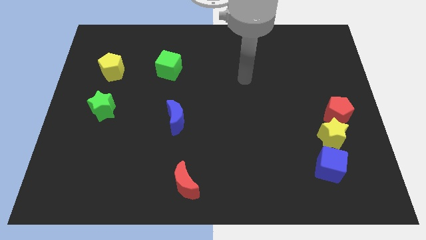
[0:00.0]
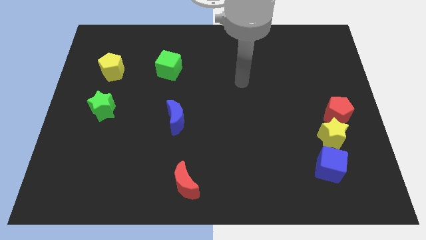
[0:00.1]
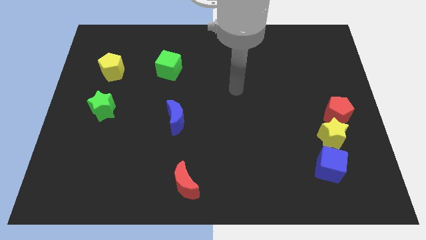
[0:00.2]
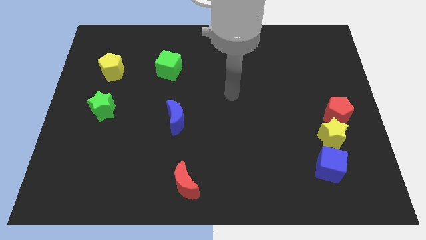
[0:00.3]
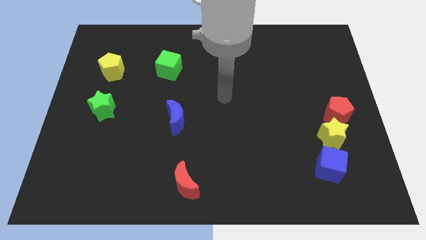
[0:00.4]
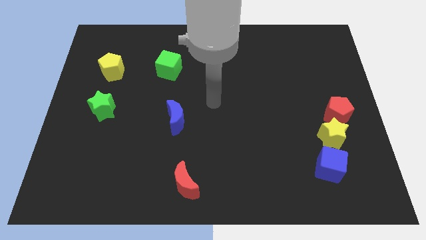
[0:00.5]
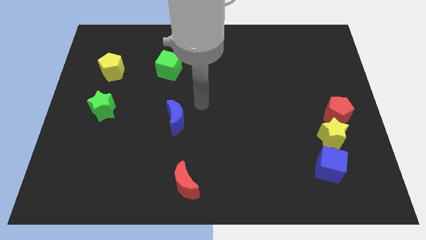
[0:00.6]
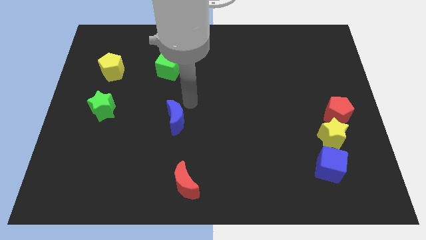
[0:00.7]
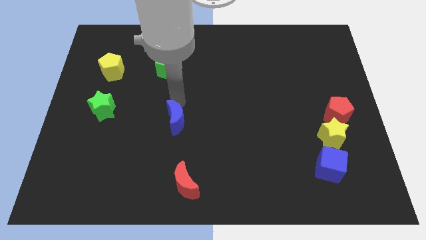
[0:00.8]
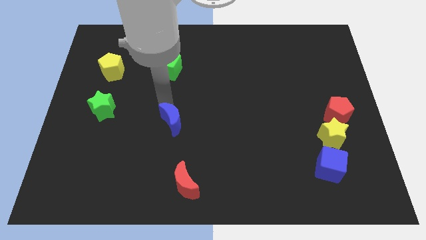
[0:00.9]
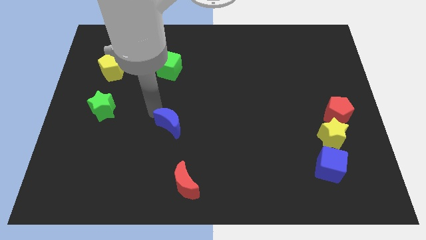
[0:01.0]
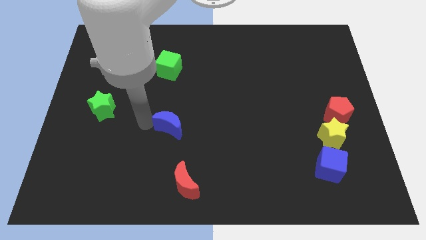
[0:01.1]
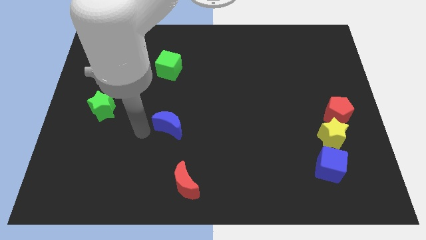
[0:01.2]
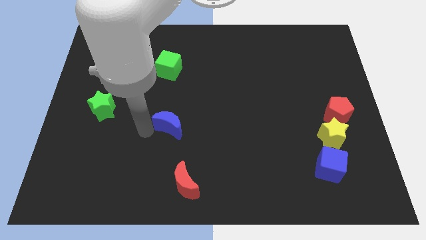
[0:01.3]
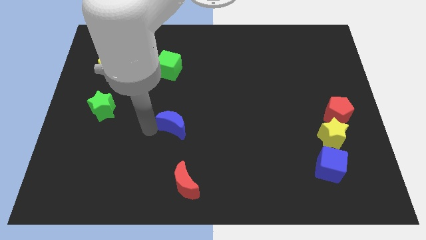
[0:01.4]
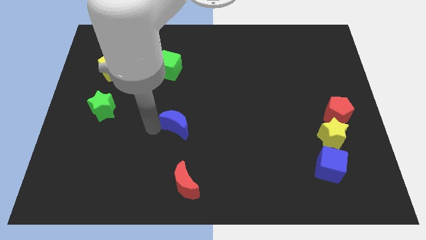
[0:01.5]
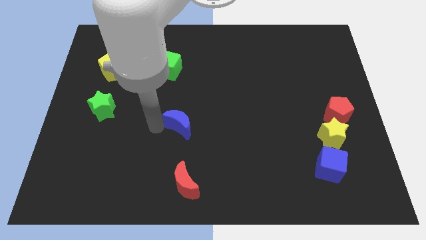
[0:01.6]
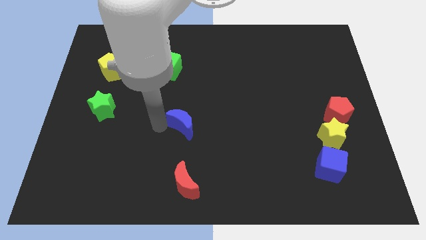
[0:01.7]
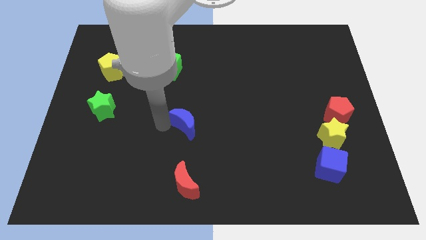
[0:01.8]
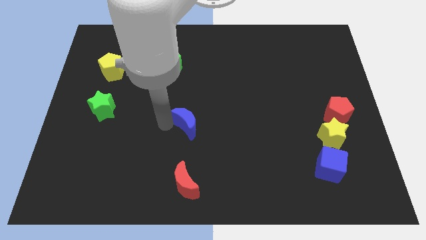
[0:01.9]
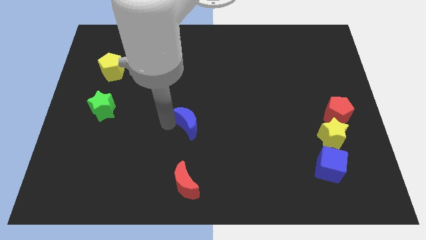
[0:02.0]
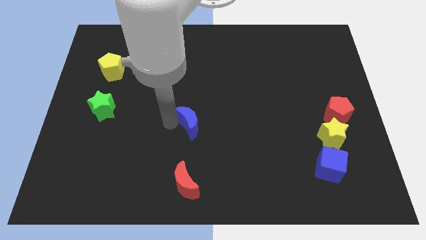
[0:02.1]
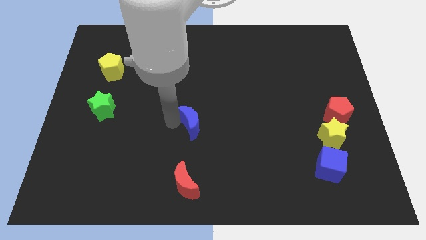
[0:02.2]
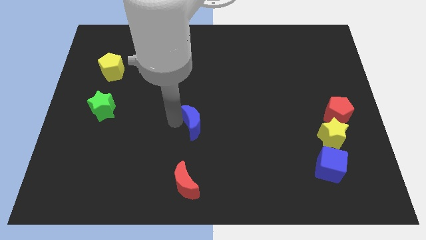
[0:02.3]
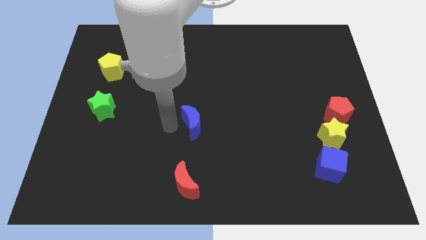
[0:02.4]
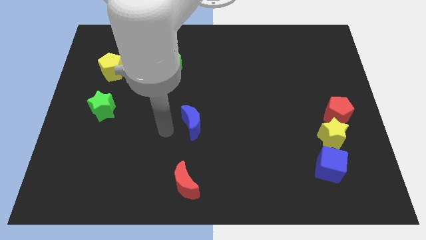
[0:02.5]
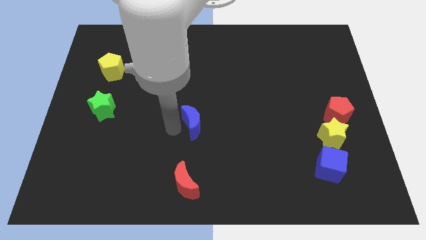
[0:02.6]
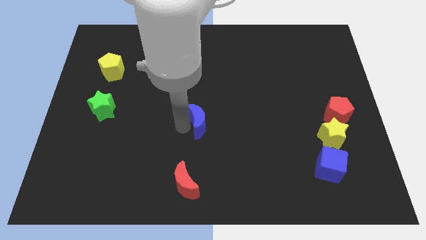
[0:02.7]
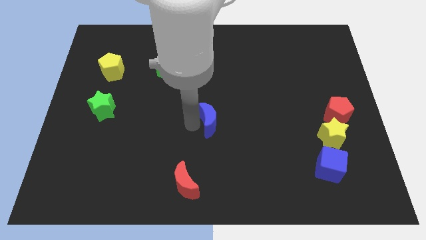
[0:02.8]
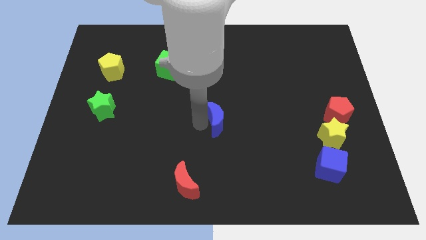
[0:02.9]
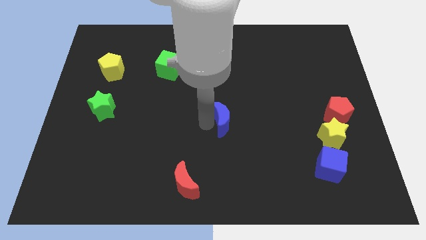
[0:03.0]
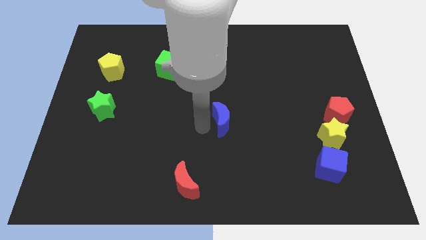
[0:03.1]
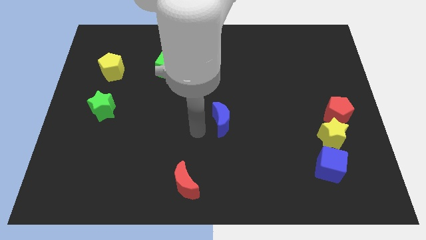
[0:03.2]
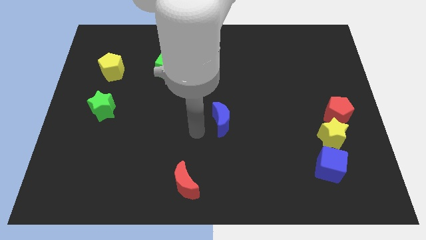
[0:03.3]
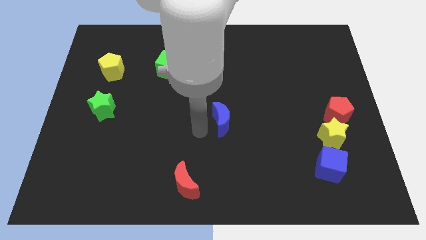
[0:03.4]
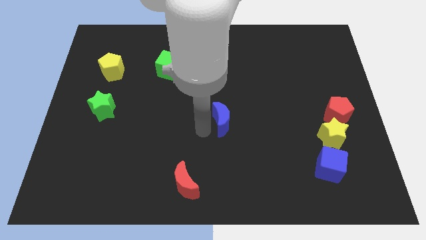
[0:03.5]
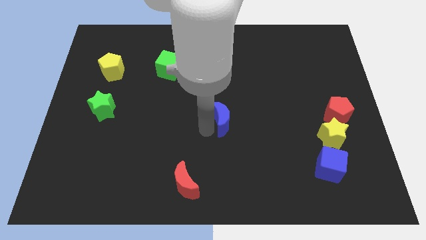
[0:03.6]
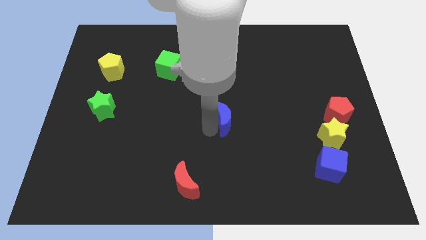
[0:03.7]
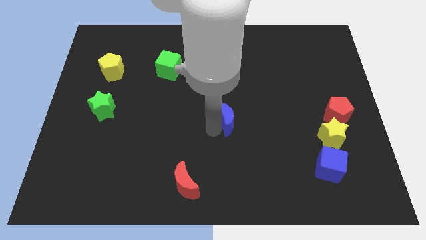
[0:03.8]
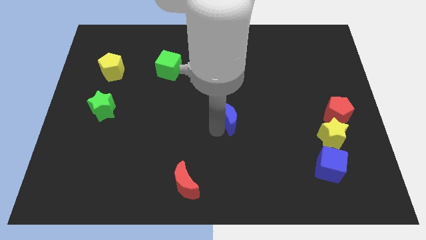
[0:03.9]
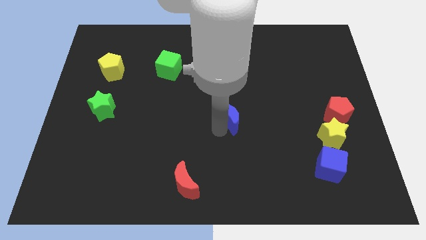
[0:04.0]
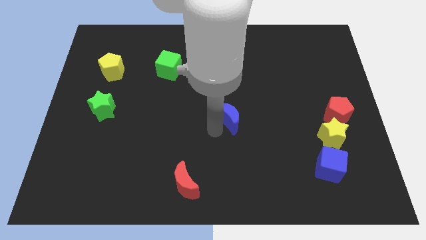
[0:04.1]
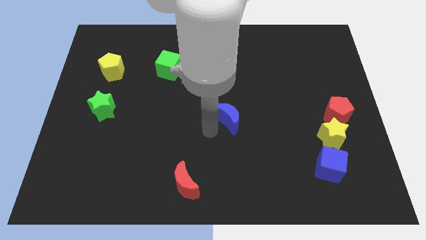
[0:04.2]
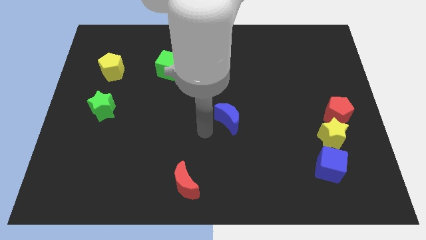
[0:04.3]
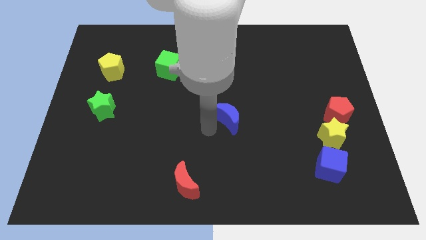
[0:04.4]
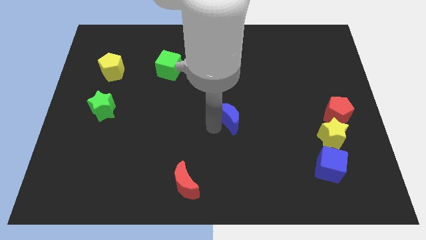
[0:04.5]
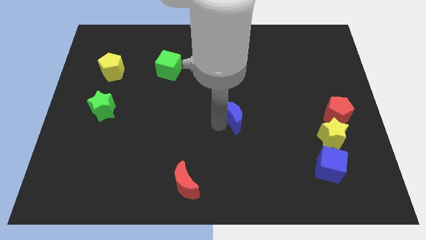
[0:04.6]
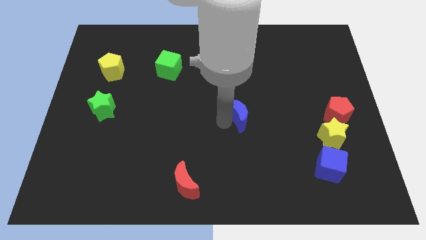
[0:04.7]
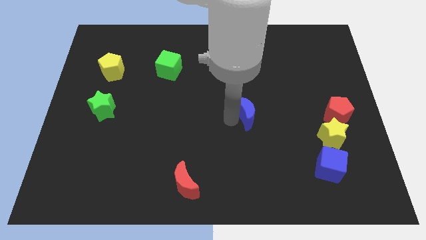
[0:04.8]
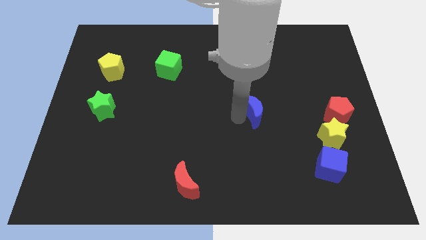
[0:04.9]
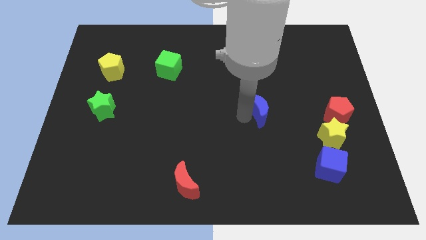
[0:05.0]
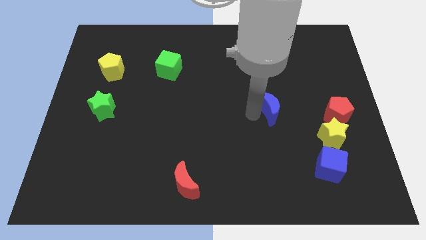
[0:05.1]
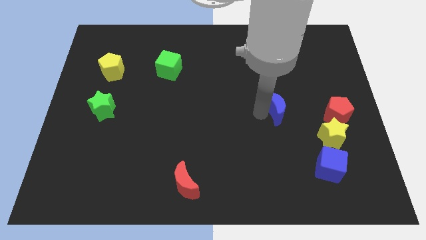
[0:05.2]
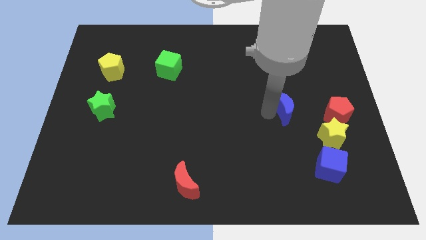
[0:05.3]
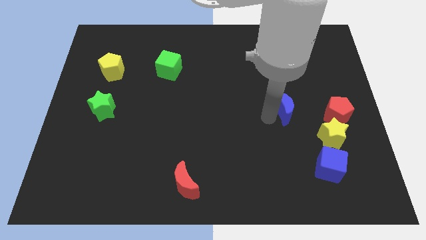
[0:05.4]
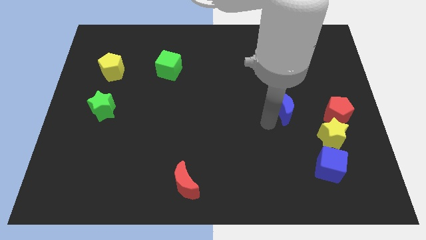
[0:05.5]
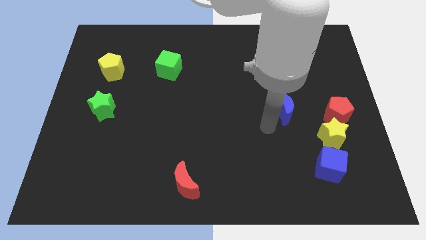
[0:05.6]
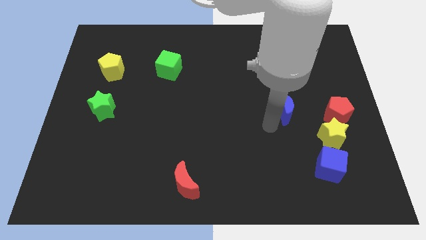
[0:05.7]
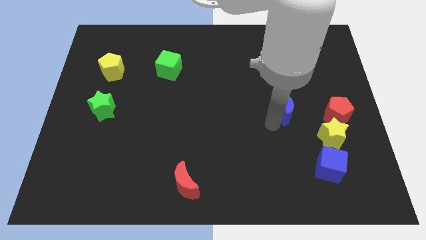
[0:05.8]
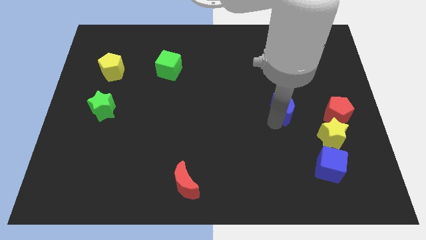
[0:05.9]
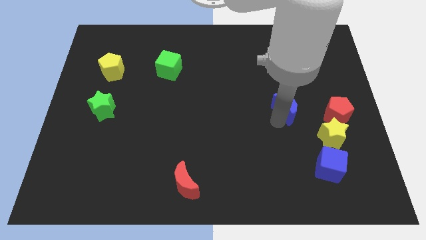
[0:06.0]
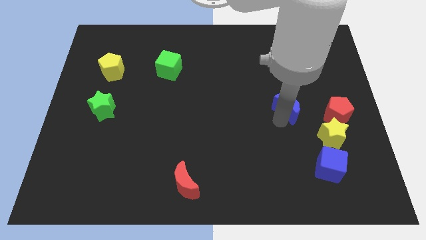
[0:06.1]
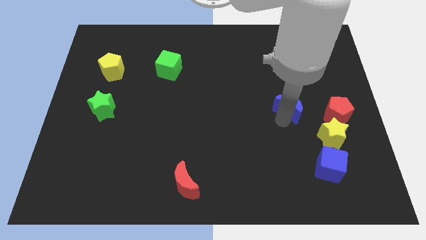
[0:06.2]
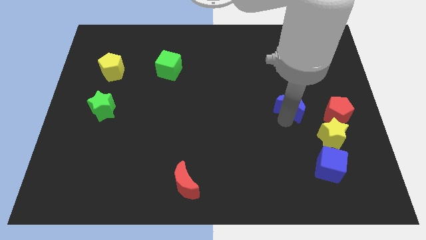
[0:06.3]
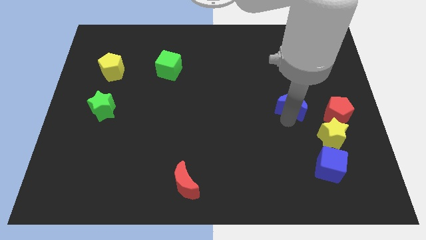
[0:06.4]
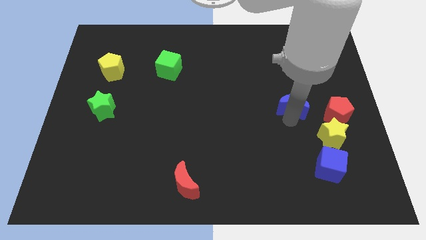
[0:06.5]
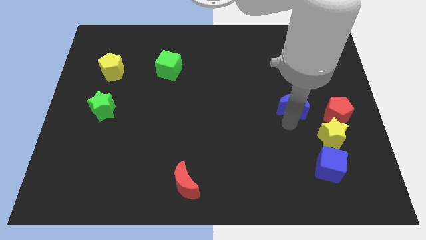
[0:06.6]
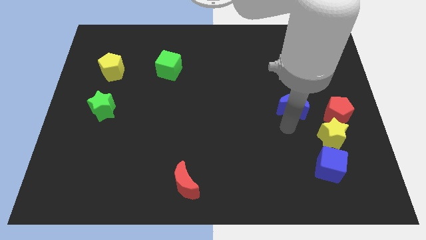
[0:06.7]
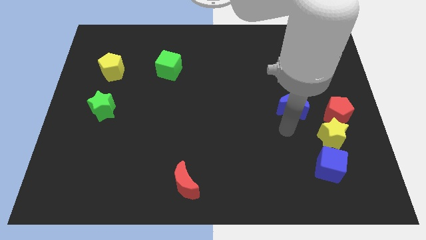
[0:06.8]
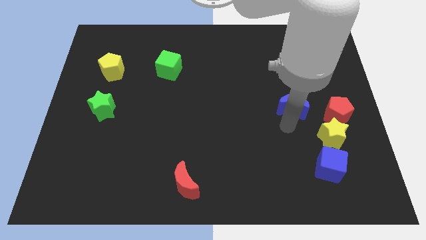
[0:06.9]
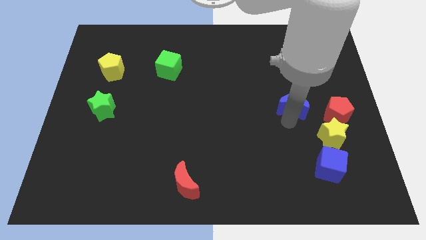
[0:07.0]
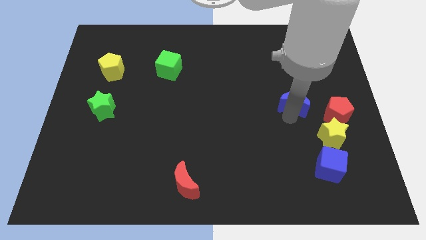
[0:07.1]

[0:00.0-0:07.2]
put the blue moon to the top left side of the red pentagon
